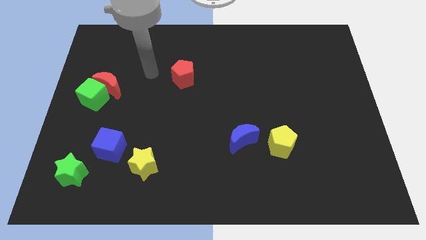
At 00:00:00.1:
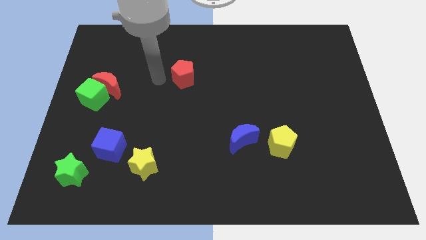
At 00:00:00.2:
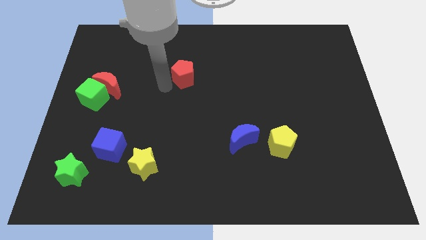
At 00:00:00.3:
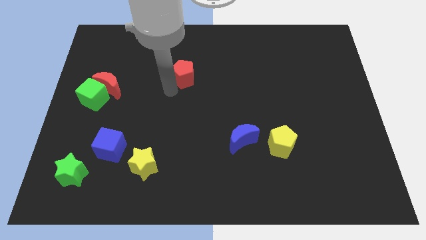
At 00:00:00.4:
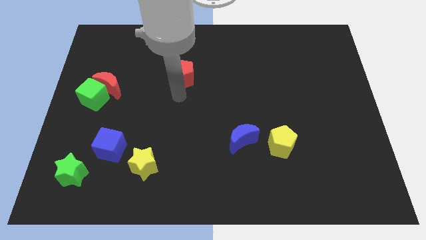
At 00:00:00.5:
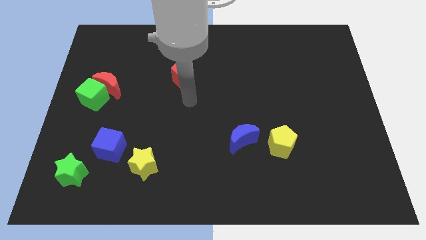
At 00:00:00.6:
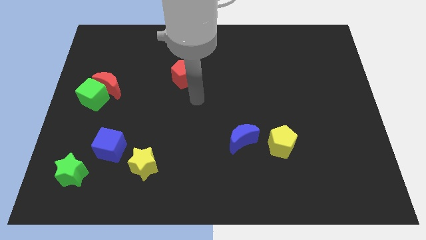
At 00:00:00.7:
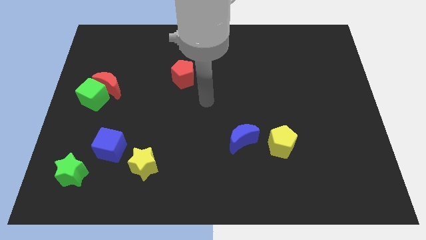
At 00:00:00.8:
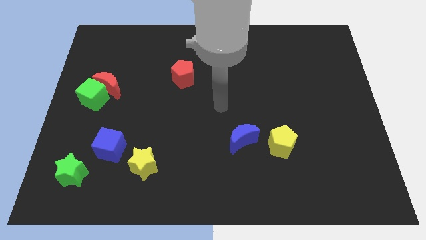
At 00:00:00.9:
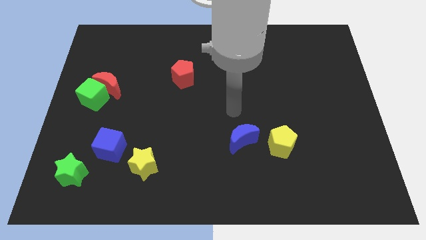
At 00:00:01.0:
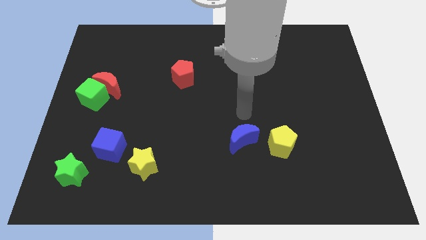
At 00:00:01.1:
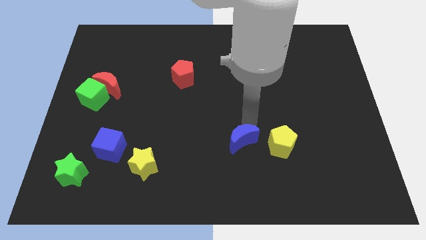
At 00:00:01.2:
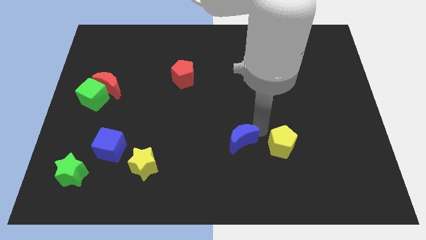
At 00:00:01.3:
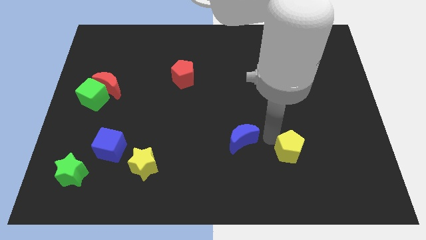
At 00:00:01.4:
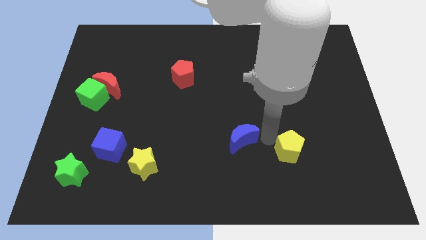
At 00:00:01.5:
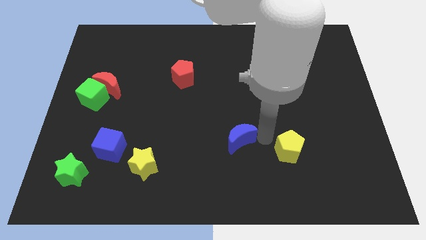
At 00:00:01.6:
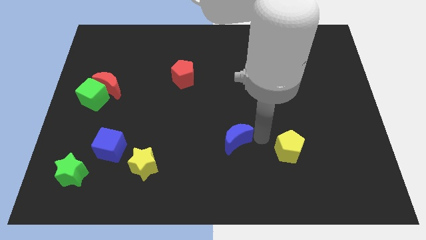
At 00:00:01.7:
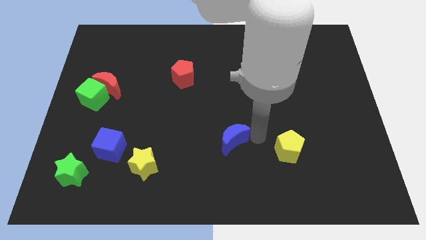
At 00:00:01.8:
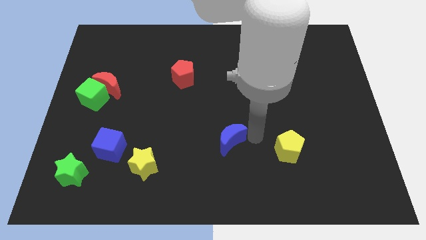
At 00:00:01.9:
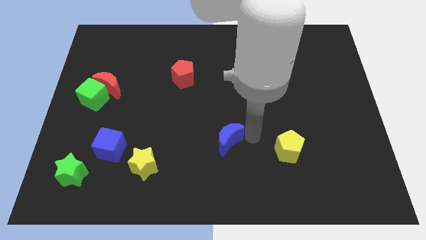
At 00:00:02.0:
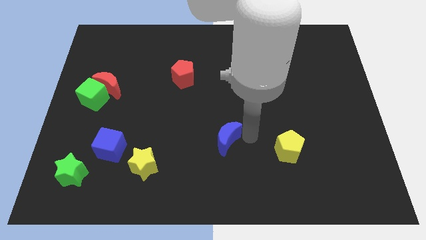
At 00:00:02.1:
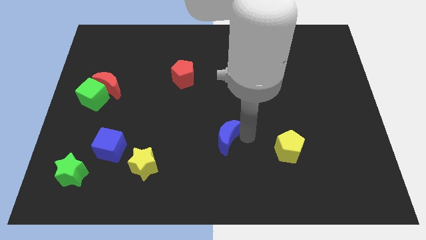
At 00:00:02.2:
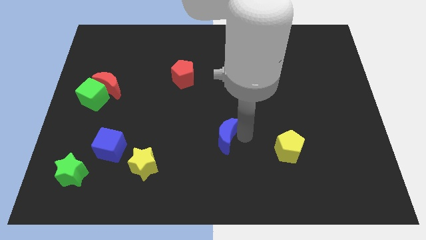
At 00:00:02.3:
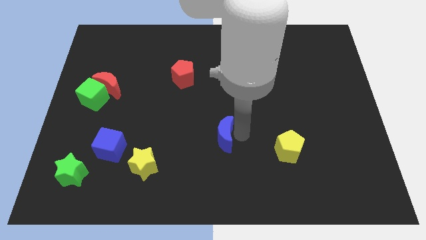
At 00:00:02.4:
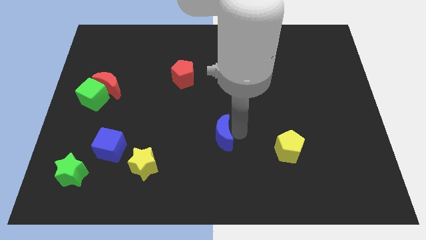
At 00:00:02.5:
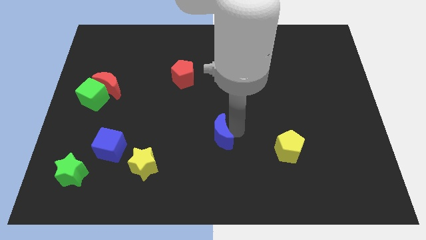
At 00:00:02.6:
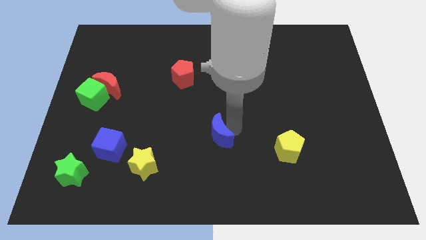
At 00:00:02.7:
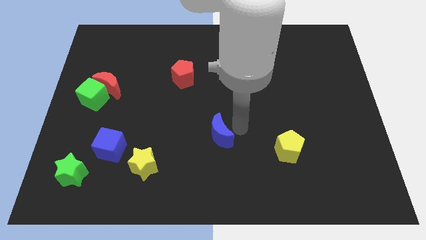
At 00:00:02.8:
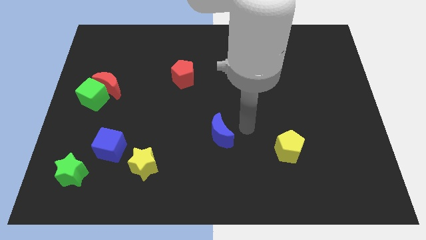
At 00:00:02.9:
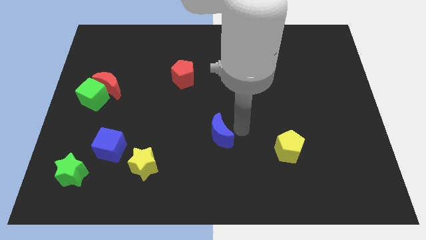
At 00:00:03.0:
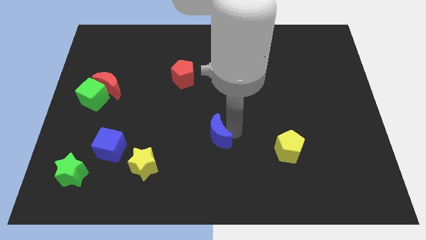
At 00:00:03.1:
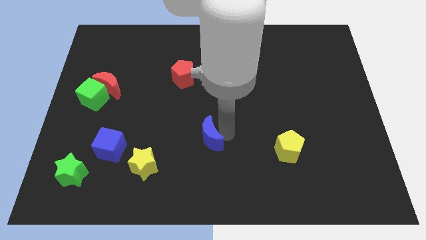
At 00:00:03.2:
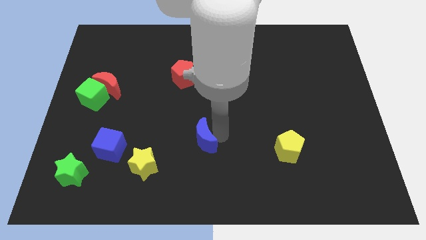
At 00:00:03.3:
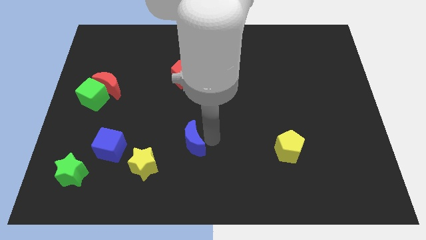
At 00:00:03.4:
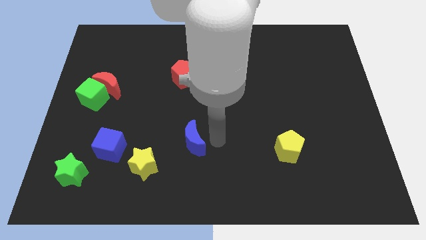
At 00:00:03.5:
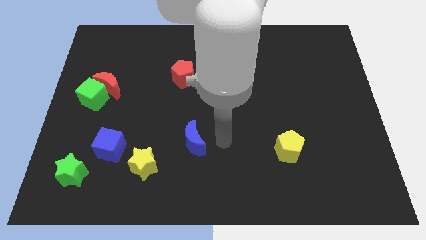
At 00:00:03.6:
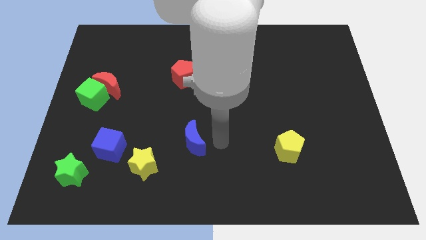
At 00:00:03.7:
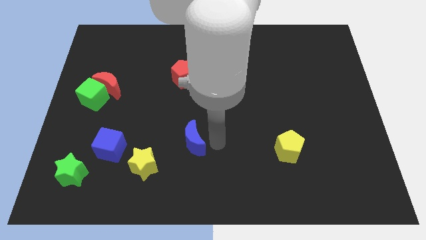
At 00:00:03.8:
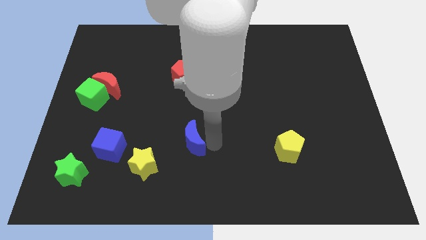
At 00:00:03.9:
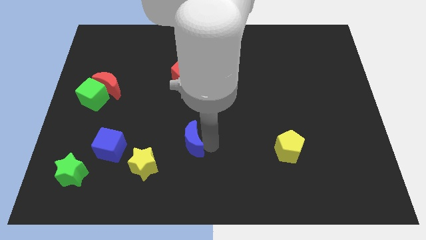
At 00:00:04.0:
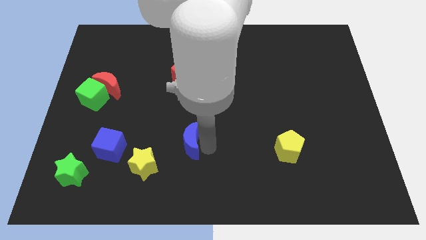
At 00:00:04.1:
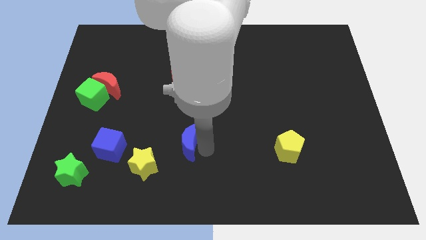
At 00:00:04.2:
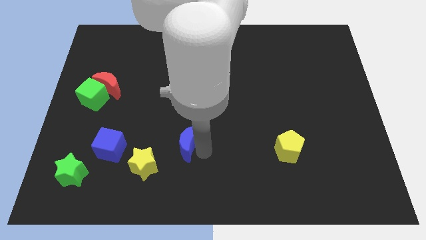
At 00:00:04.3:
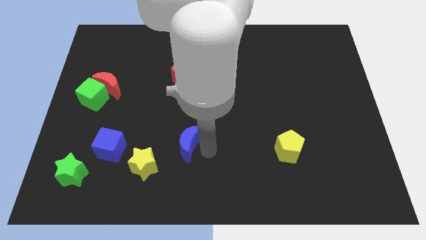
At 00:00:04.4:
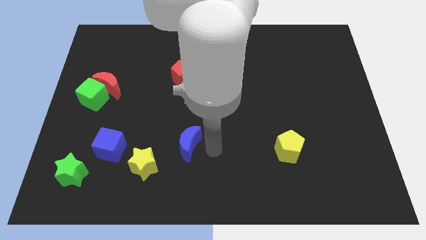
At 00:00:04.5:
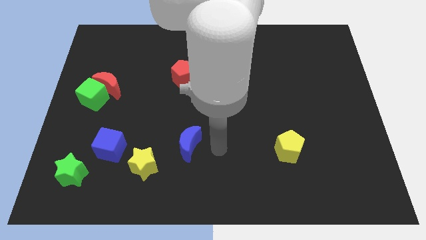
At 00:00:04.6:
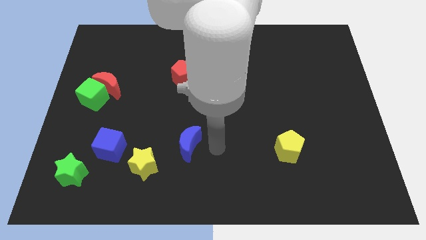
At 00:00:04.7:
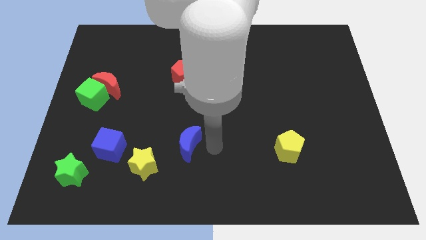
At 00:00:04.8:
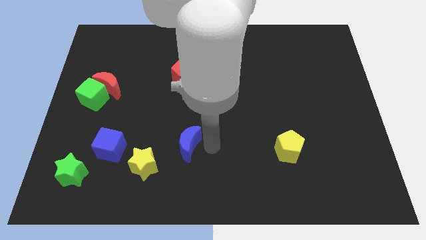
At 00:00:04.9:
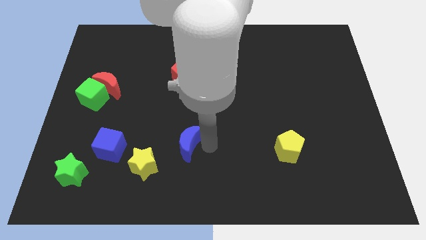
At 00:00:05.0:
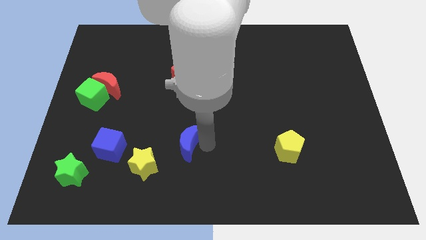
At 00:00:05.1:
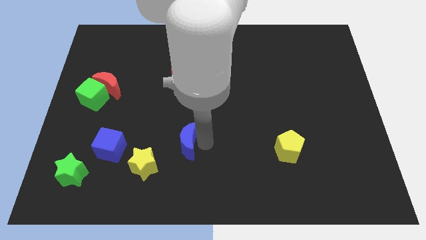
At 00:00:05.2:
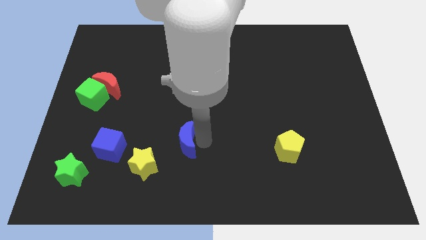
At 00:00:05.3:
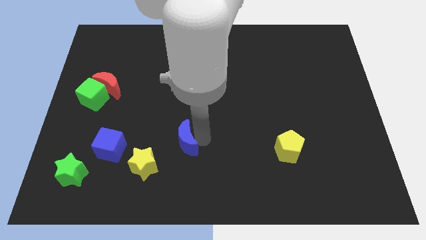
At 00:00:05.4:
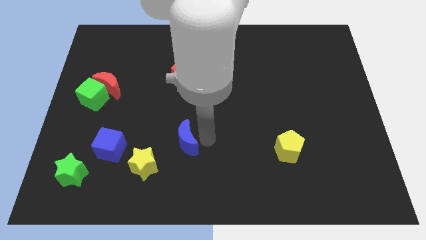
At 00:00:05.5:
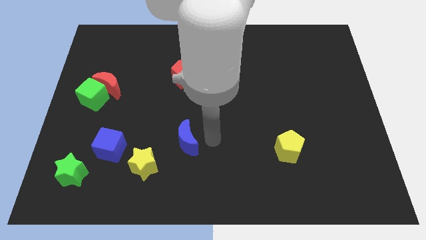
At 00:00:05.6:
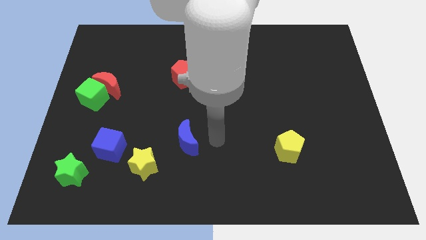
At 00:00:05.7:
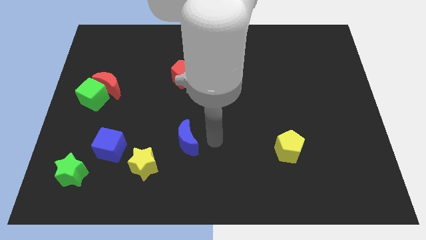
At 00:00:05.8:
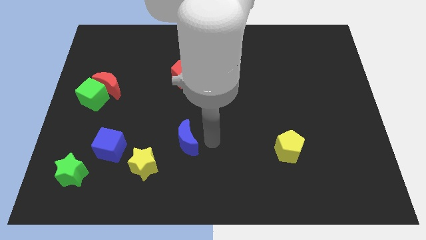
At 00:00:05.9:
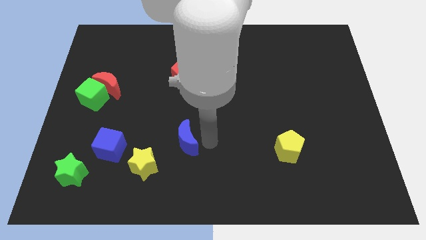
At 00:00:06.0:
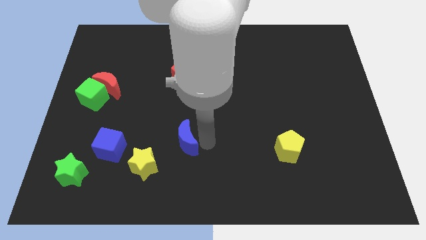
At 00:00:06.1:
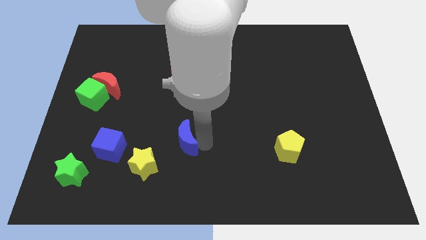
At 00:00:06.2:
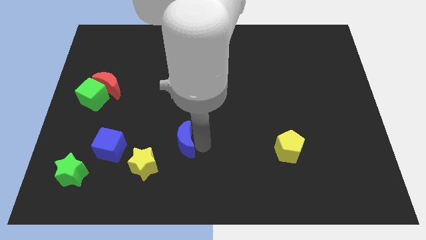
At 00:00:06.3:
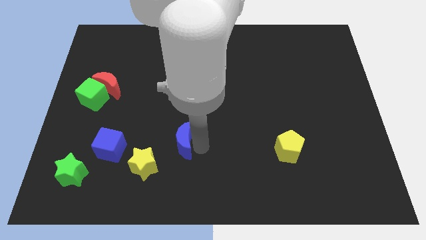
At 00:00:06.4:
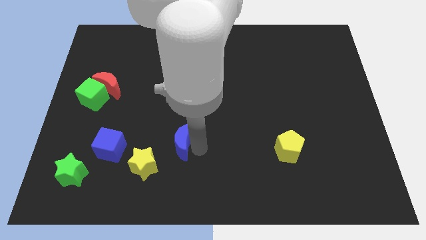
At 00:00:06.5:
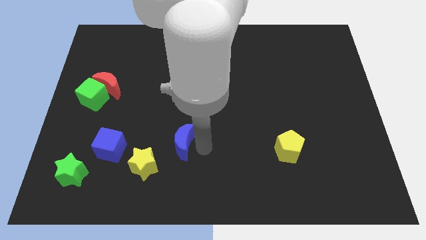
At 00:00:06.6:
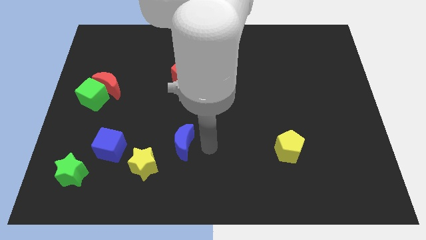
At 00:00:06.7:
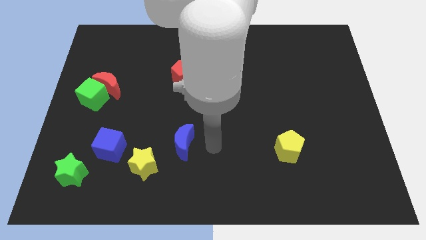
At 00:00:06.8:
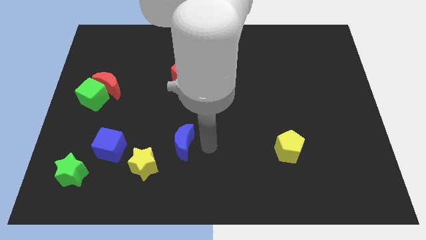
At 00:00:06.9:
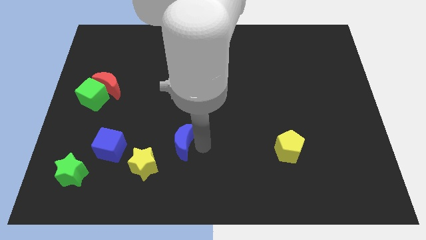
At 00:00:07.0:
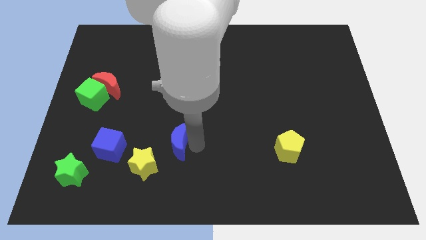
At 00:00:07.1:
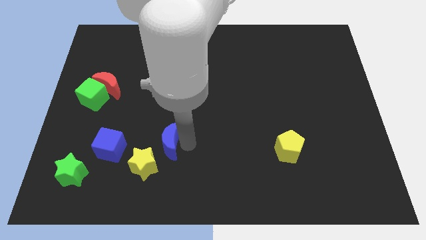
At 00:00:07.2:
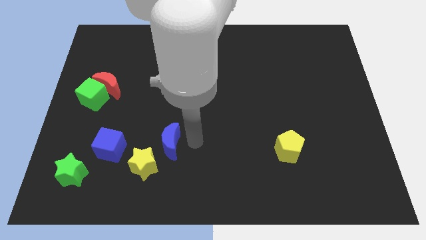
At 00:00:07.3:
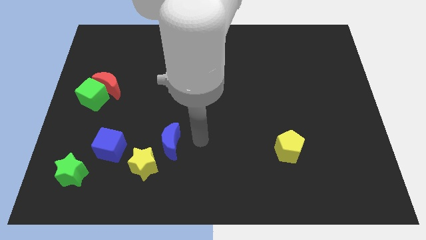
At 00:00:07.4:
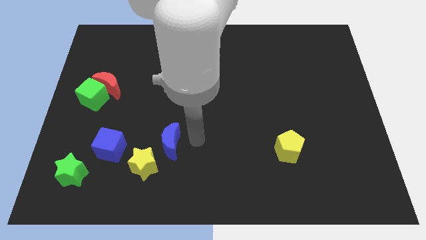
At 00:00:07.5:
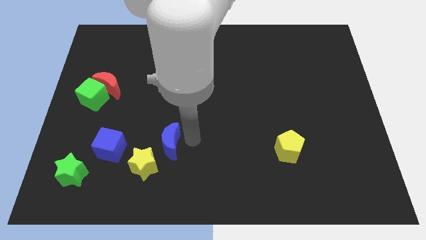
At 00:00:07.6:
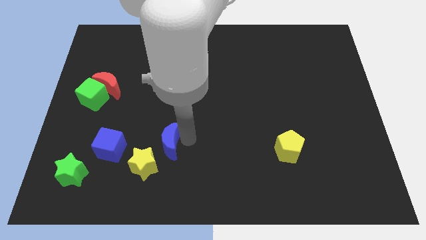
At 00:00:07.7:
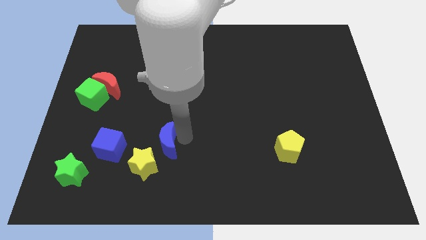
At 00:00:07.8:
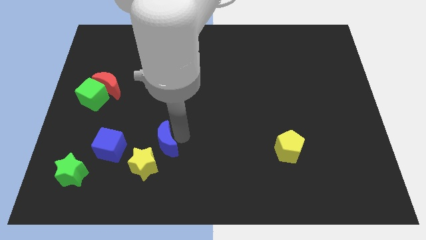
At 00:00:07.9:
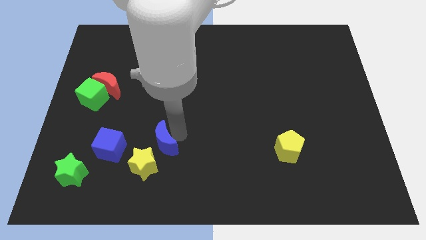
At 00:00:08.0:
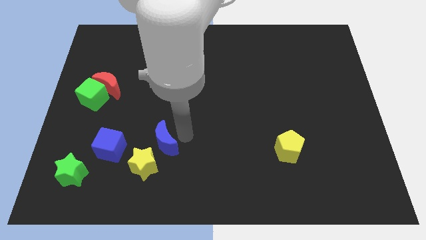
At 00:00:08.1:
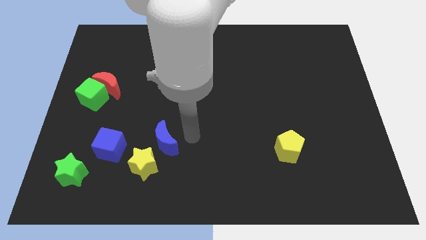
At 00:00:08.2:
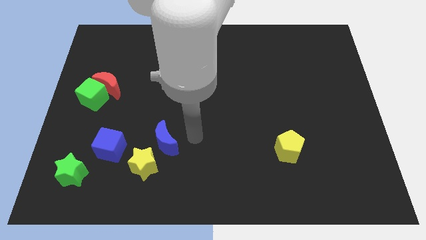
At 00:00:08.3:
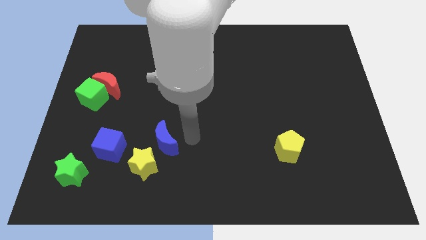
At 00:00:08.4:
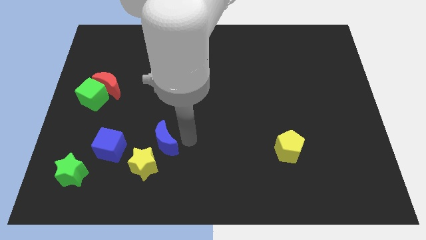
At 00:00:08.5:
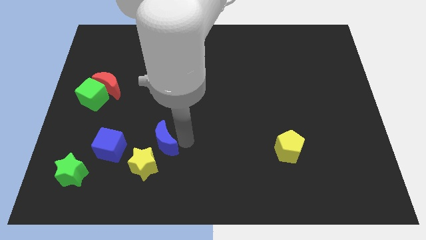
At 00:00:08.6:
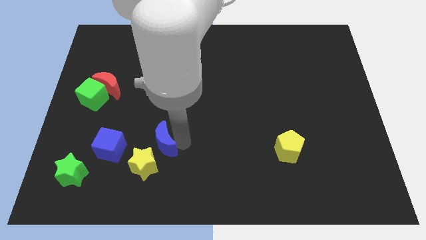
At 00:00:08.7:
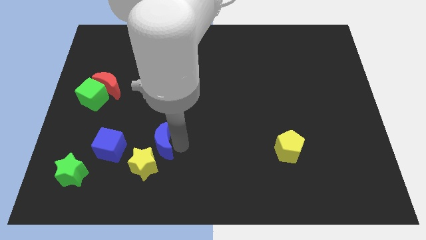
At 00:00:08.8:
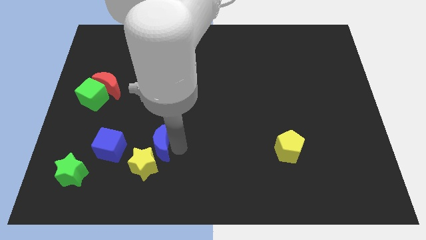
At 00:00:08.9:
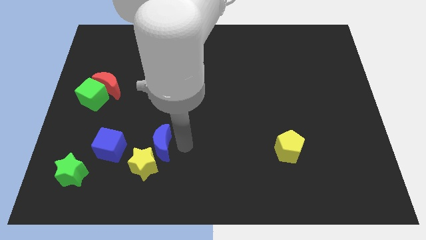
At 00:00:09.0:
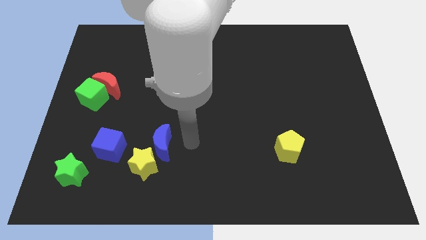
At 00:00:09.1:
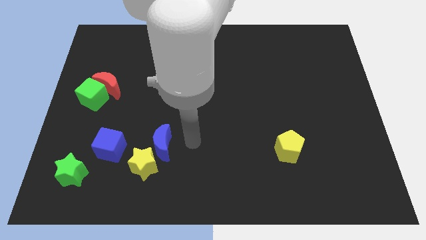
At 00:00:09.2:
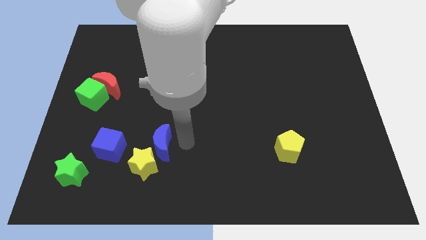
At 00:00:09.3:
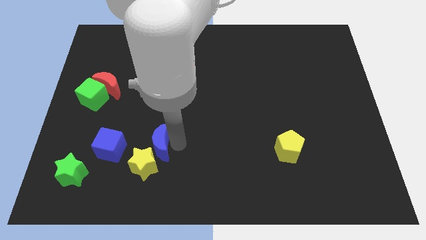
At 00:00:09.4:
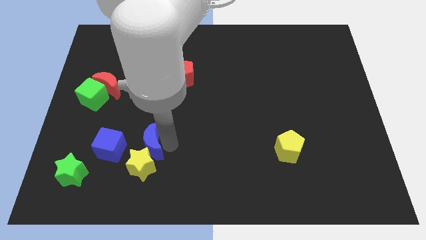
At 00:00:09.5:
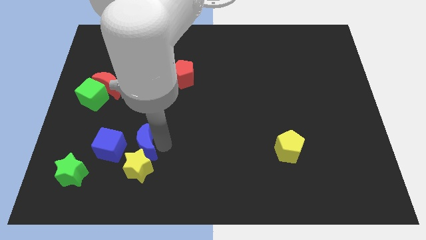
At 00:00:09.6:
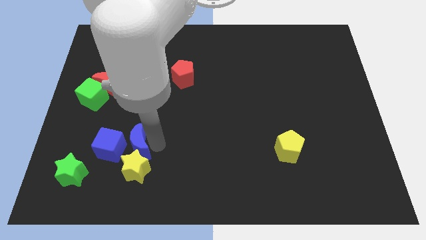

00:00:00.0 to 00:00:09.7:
move the blue moon close to the blue cube
